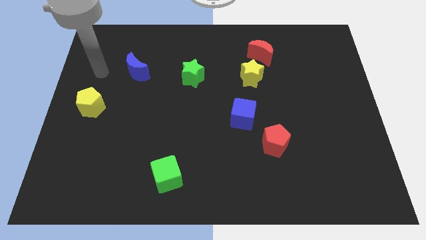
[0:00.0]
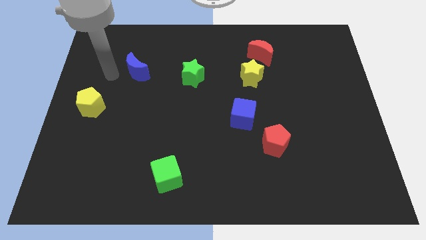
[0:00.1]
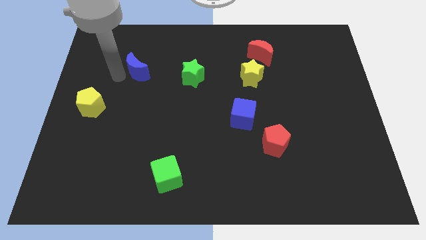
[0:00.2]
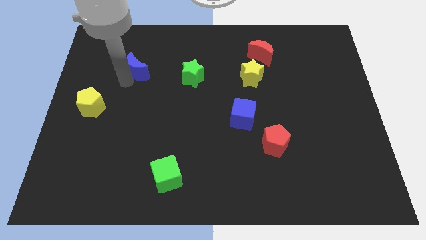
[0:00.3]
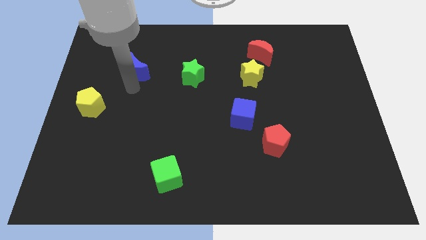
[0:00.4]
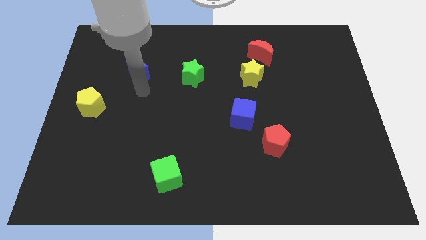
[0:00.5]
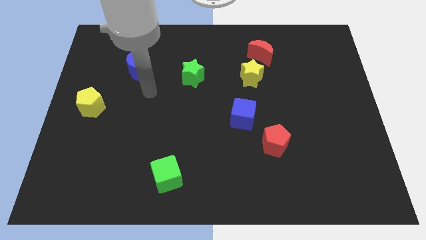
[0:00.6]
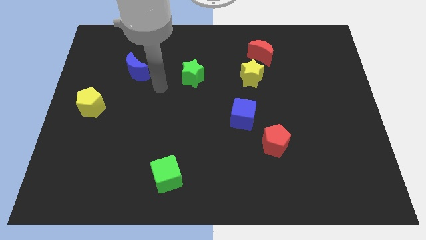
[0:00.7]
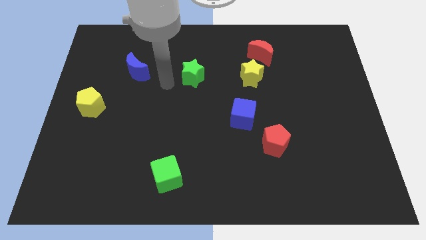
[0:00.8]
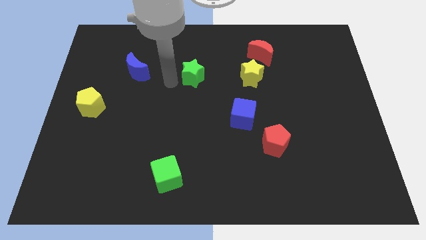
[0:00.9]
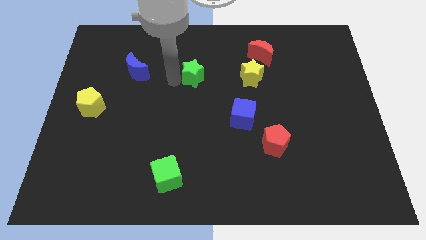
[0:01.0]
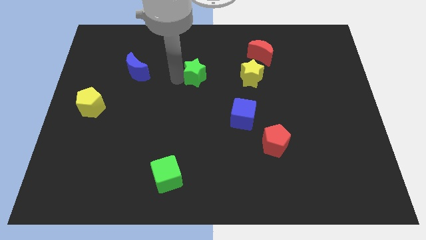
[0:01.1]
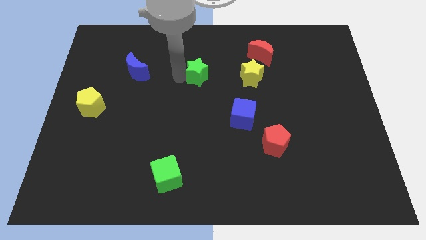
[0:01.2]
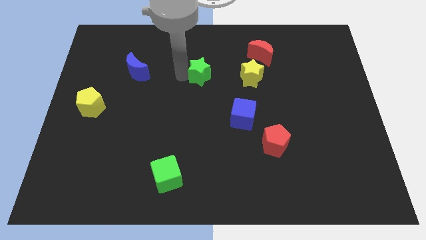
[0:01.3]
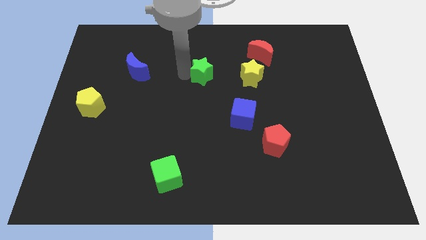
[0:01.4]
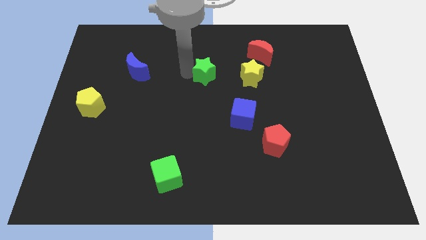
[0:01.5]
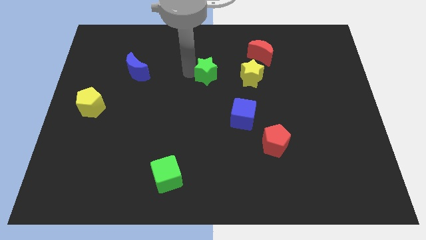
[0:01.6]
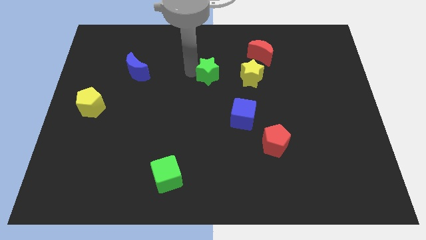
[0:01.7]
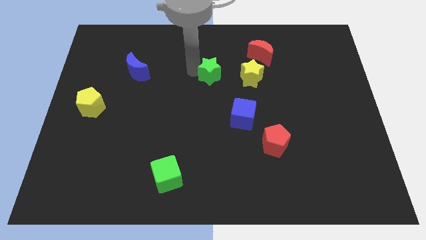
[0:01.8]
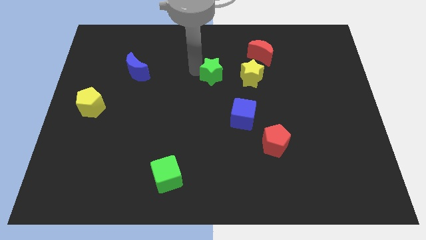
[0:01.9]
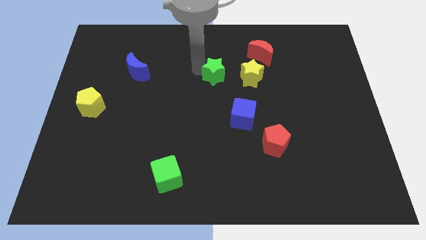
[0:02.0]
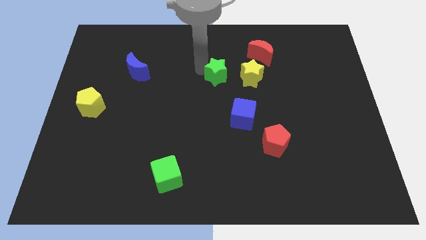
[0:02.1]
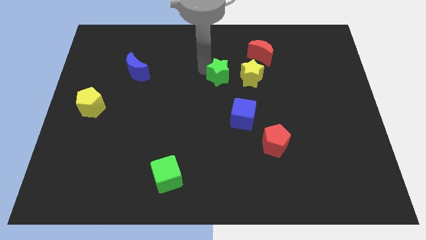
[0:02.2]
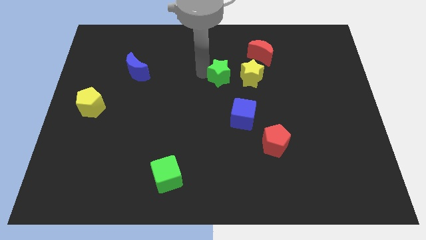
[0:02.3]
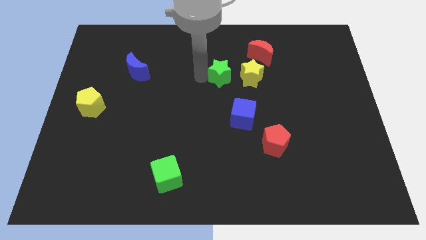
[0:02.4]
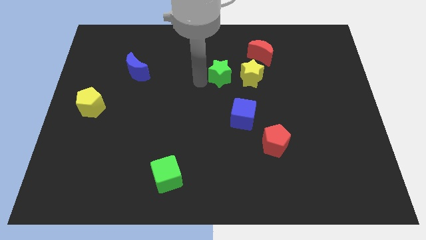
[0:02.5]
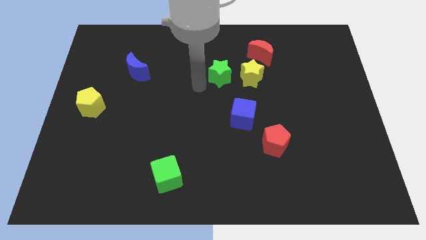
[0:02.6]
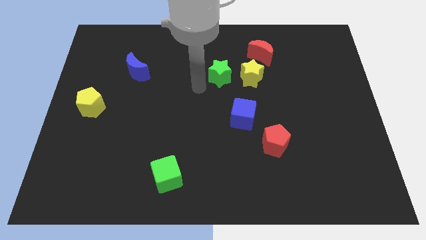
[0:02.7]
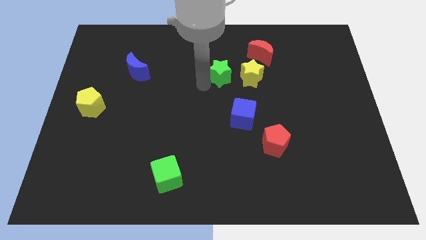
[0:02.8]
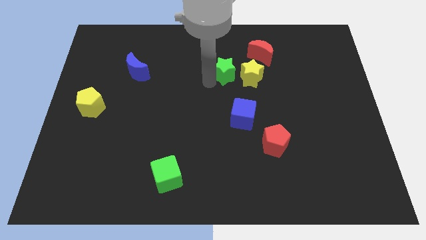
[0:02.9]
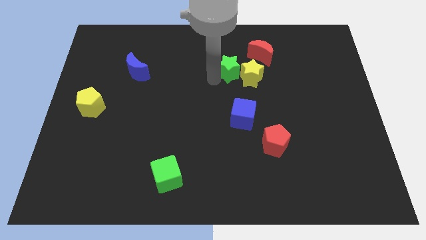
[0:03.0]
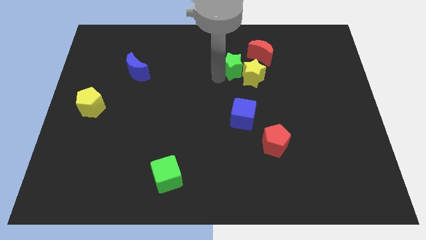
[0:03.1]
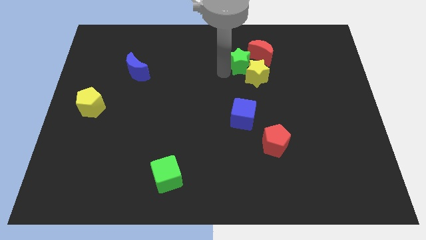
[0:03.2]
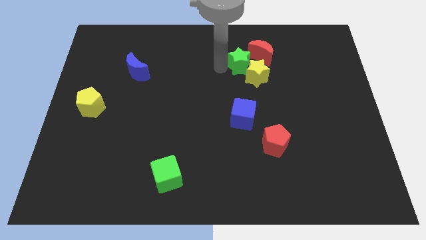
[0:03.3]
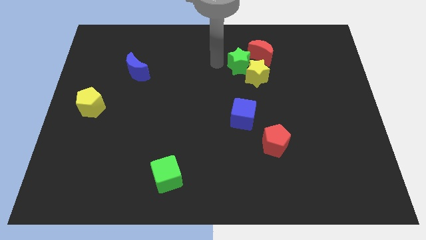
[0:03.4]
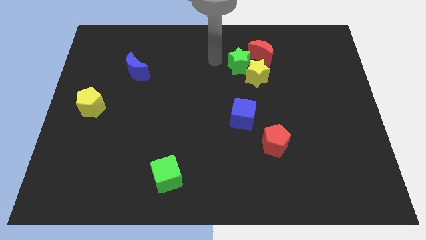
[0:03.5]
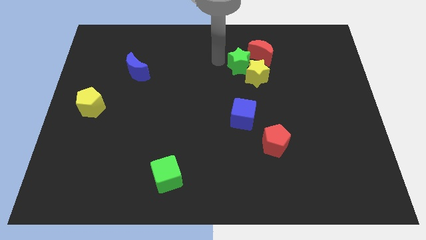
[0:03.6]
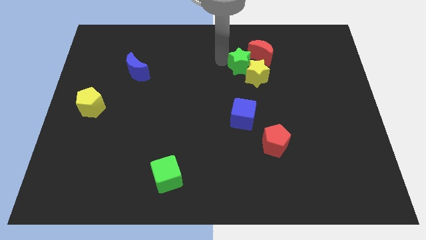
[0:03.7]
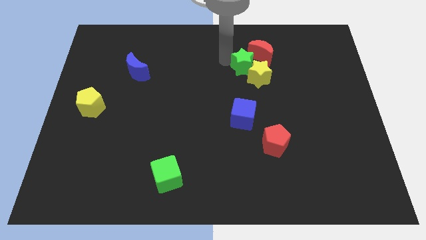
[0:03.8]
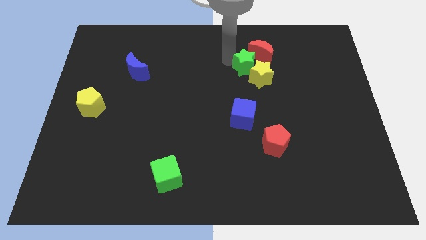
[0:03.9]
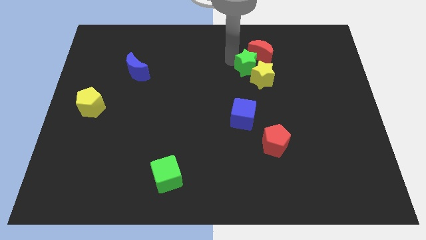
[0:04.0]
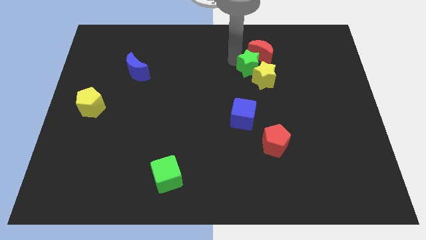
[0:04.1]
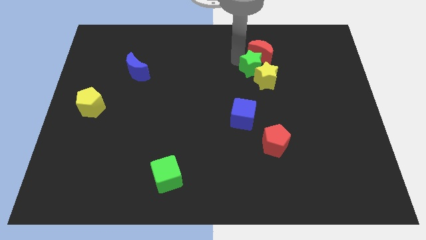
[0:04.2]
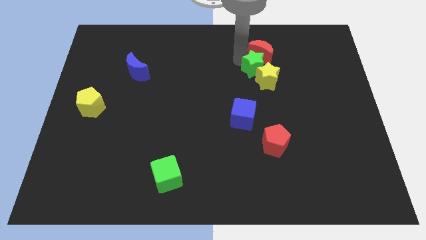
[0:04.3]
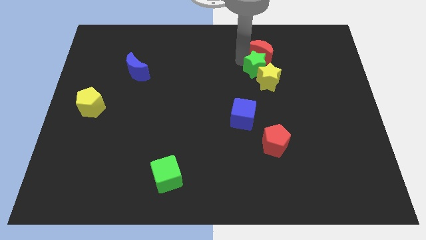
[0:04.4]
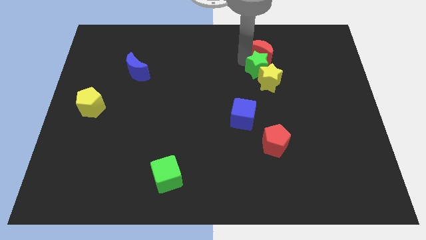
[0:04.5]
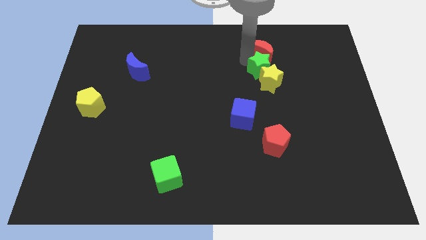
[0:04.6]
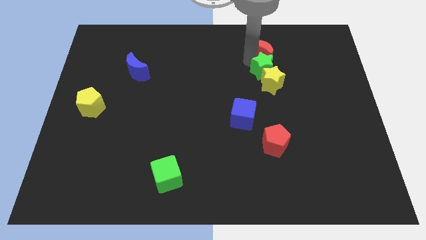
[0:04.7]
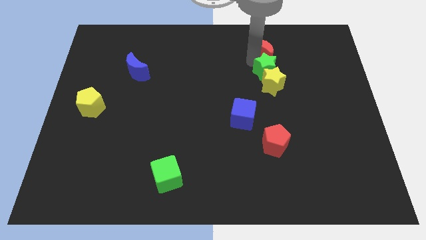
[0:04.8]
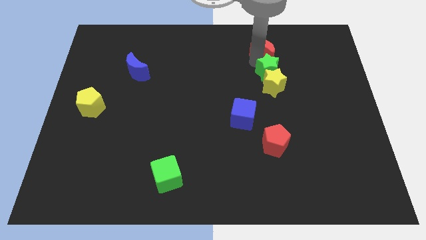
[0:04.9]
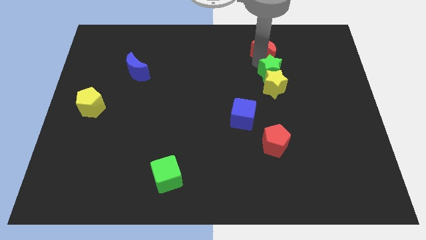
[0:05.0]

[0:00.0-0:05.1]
move the green star right

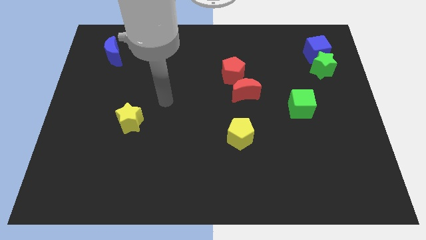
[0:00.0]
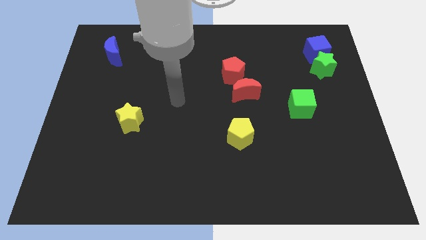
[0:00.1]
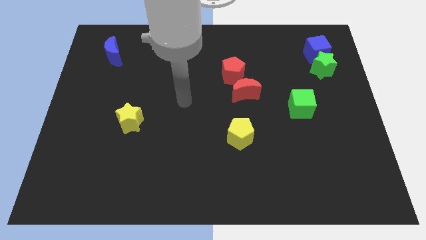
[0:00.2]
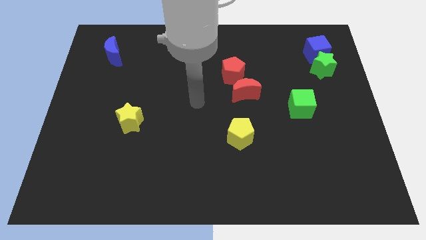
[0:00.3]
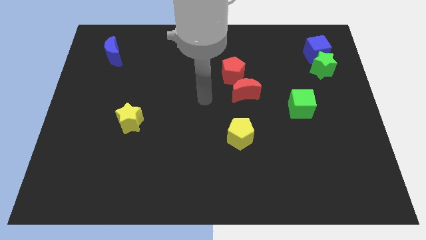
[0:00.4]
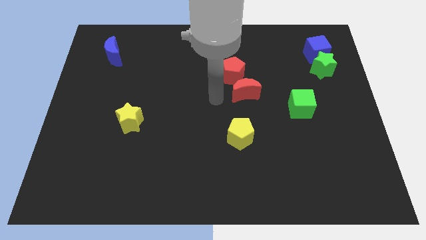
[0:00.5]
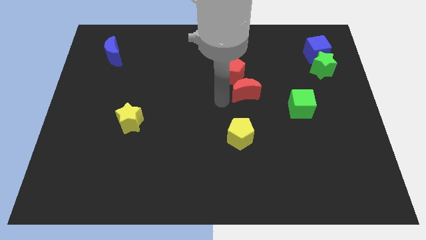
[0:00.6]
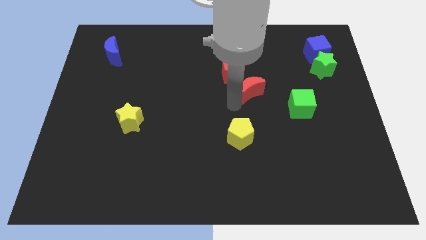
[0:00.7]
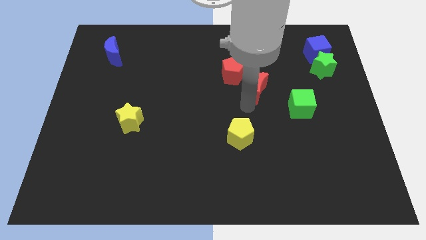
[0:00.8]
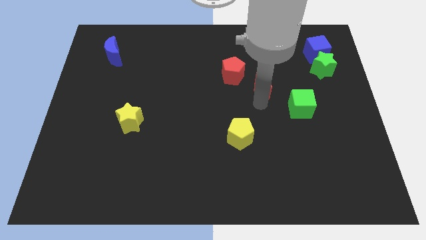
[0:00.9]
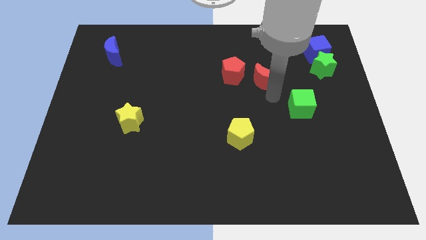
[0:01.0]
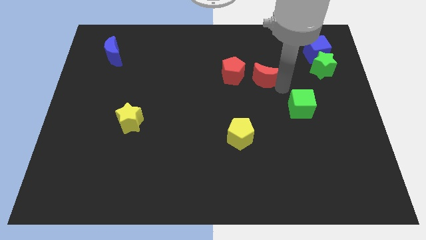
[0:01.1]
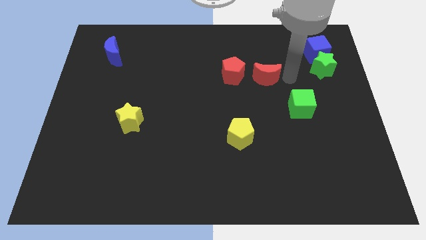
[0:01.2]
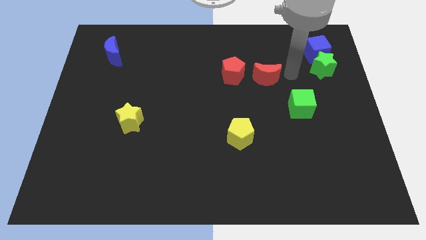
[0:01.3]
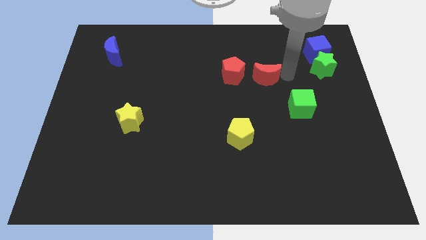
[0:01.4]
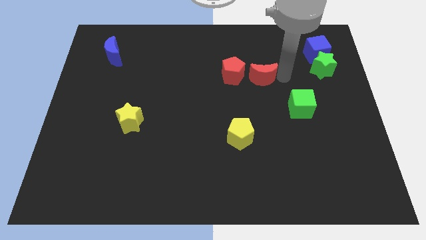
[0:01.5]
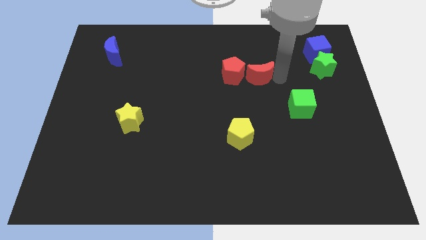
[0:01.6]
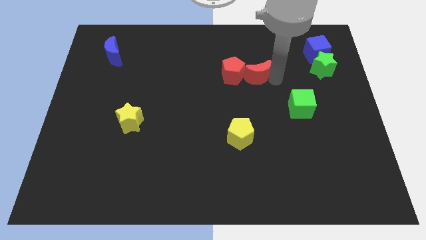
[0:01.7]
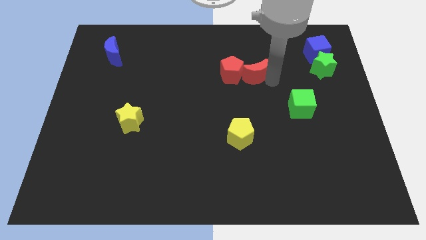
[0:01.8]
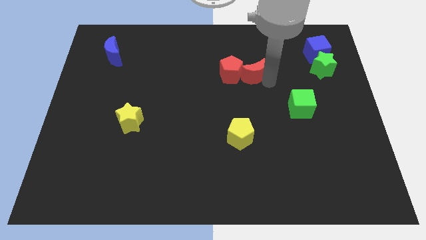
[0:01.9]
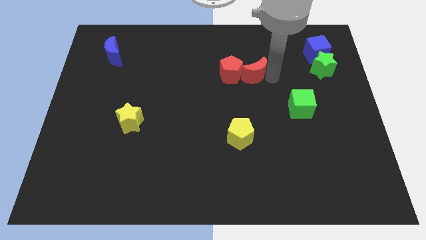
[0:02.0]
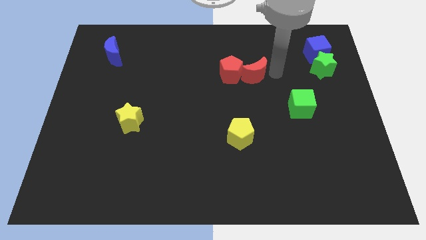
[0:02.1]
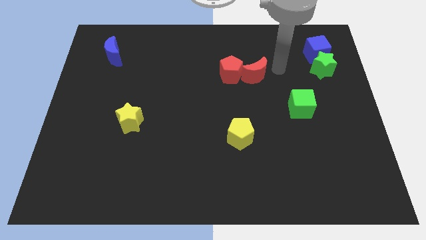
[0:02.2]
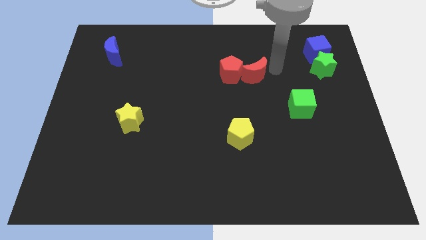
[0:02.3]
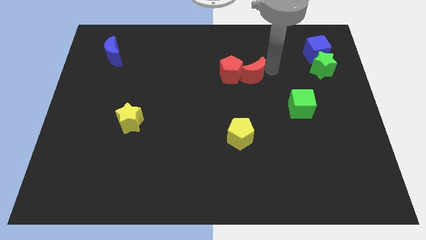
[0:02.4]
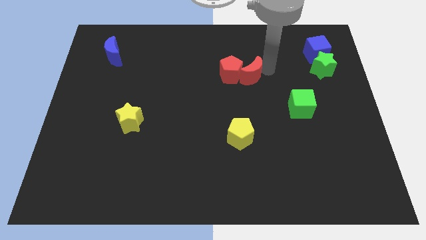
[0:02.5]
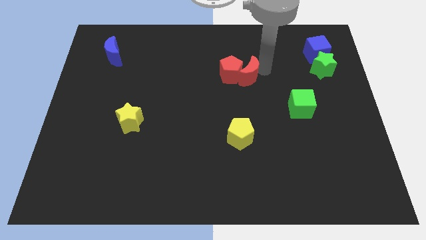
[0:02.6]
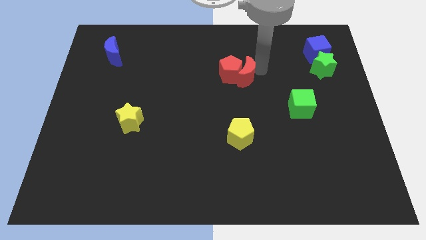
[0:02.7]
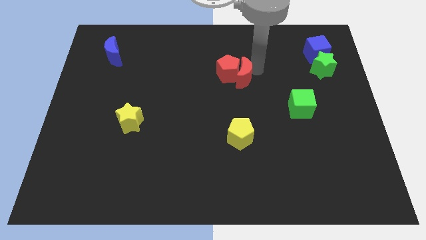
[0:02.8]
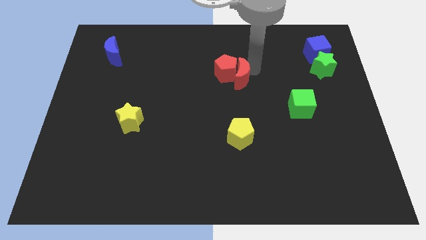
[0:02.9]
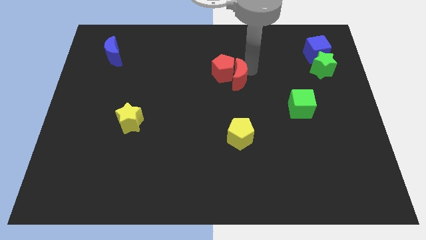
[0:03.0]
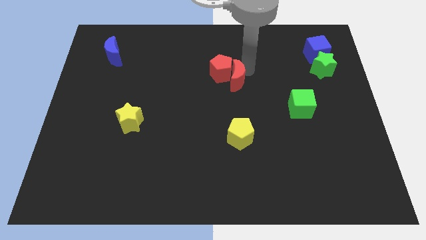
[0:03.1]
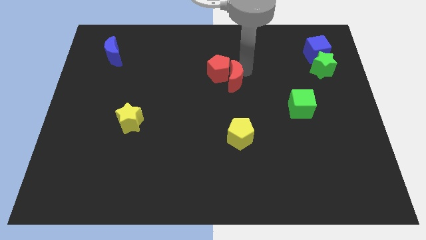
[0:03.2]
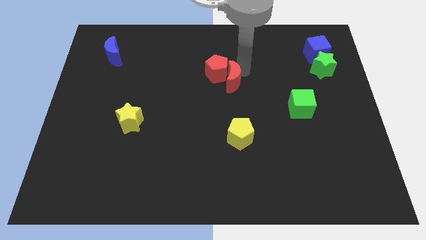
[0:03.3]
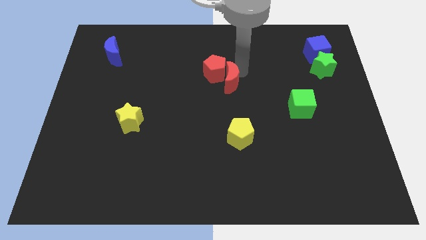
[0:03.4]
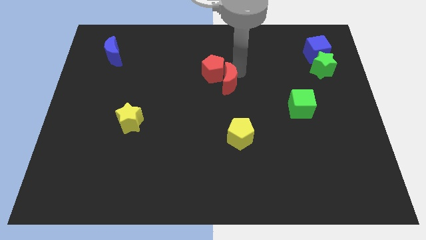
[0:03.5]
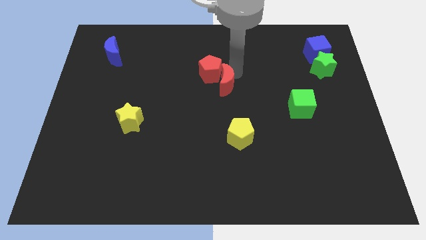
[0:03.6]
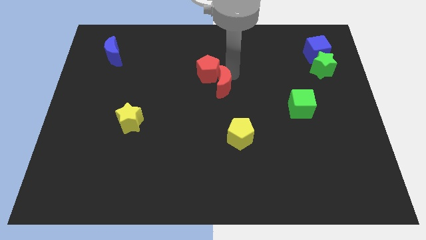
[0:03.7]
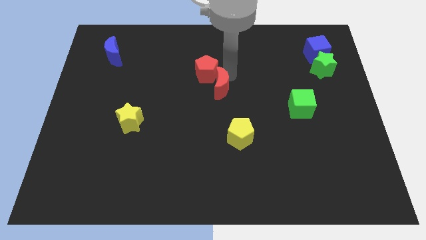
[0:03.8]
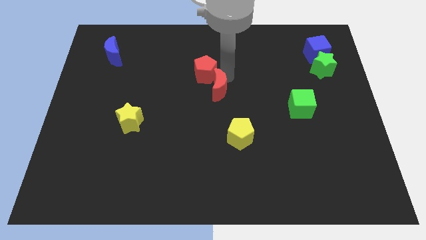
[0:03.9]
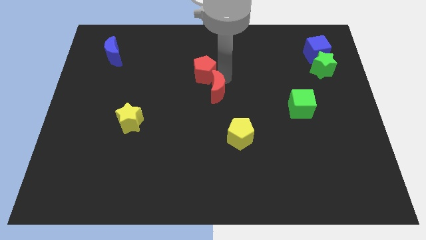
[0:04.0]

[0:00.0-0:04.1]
slightly push the red moon left
